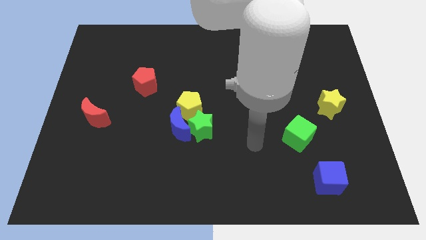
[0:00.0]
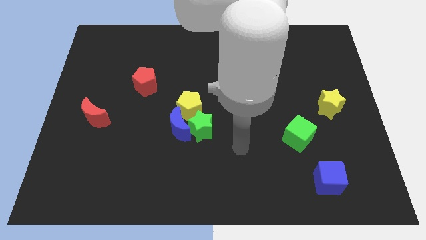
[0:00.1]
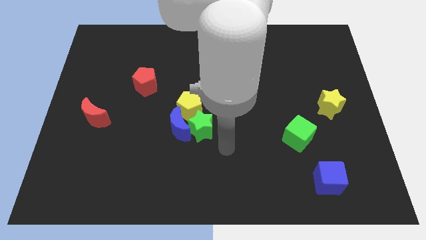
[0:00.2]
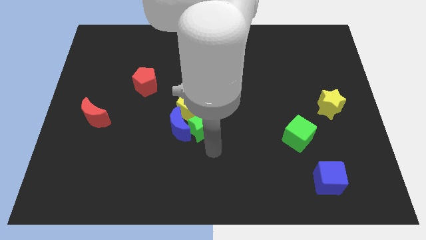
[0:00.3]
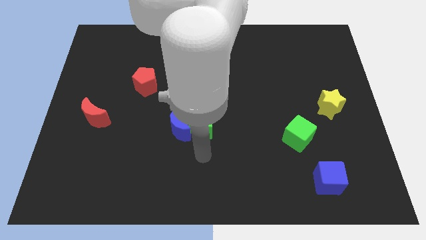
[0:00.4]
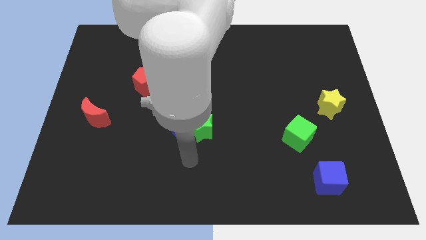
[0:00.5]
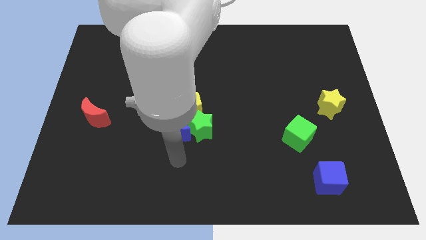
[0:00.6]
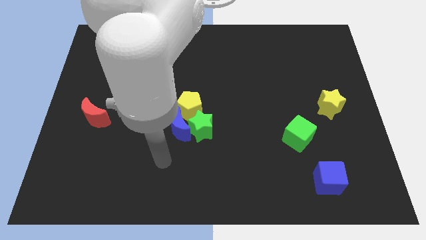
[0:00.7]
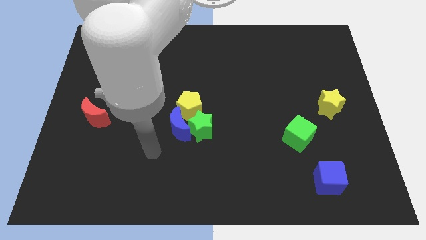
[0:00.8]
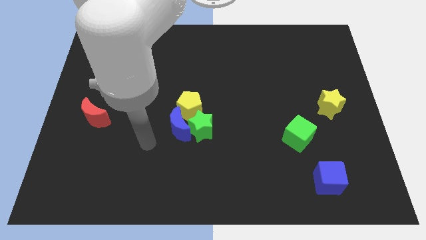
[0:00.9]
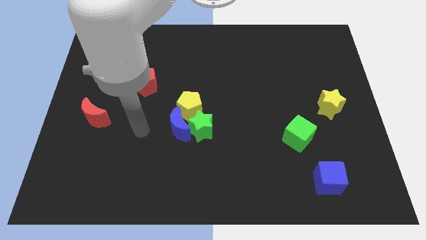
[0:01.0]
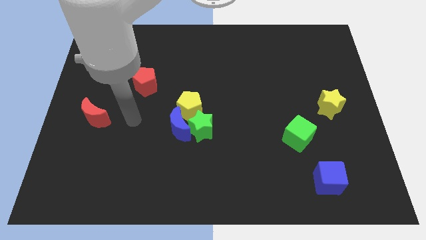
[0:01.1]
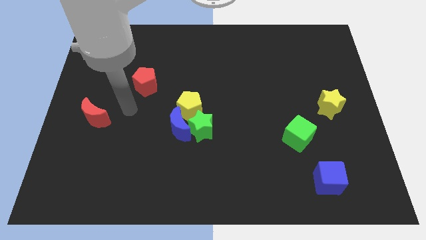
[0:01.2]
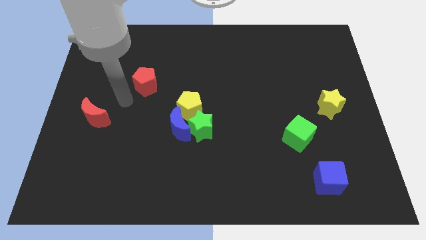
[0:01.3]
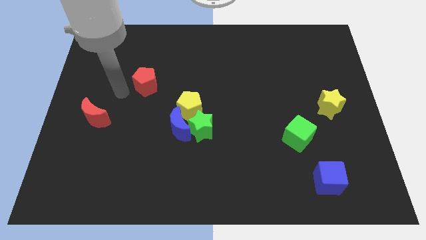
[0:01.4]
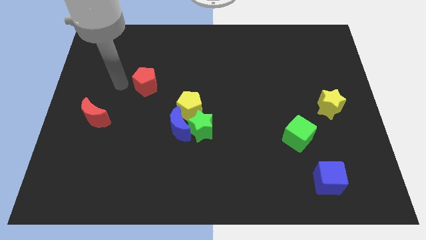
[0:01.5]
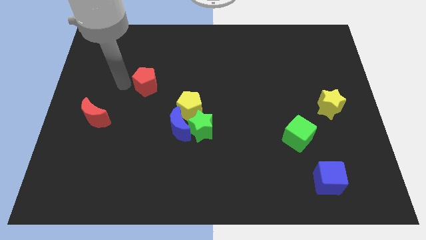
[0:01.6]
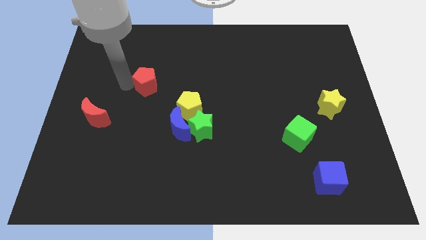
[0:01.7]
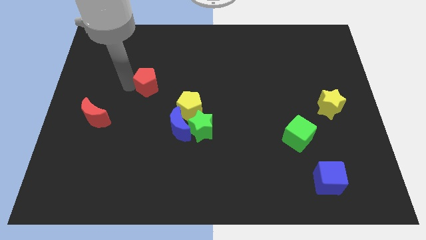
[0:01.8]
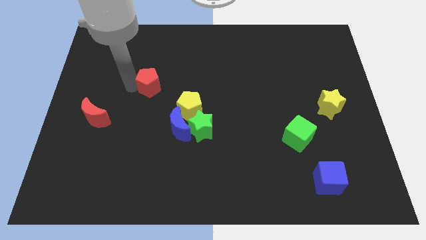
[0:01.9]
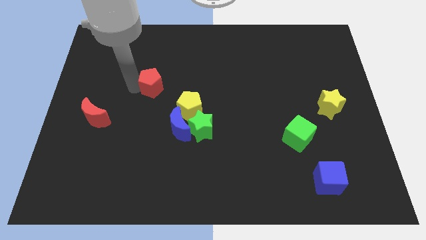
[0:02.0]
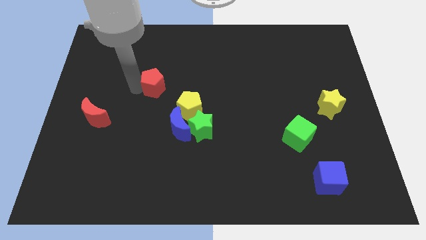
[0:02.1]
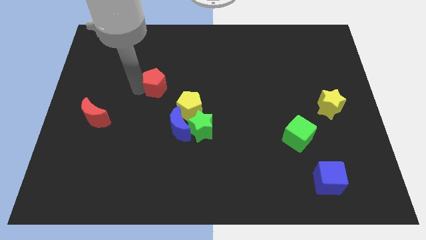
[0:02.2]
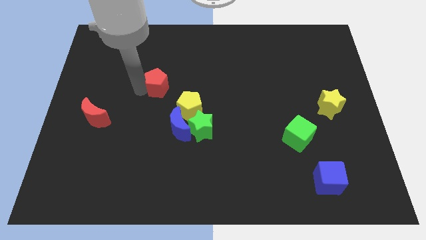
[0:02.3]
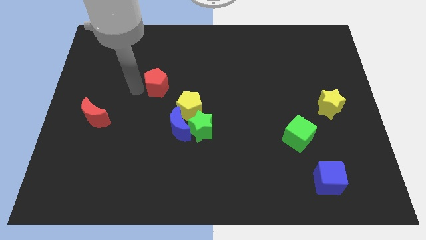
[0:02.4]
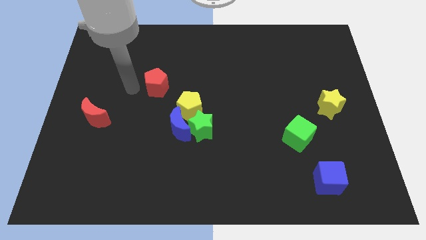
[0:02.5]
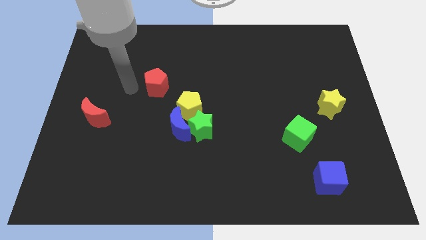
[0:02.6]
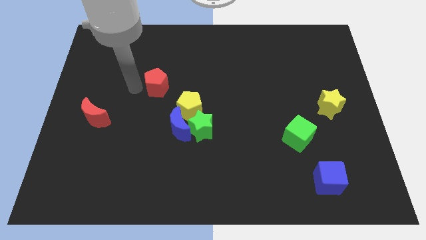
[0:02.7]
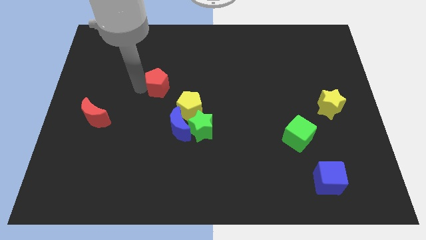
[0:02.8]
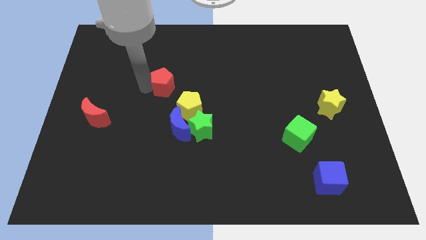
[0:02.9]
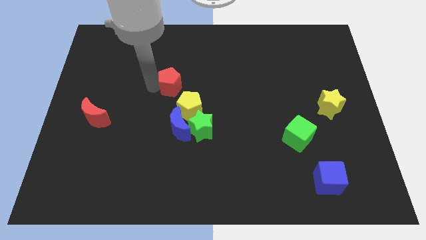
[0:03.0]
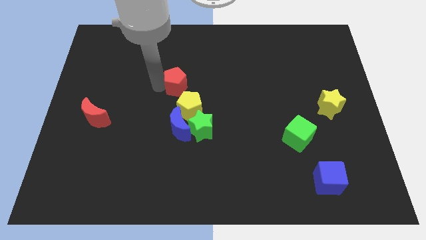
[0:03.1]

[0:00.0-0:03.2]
slightly slide the red pentagon right

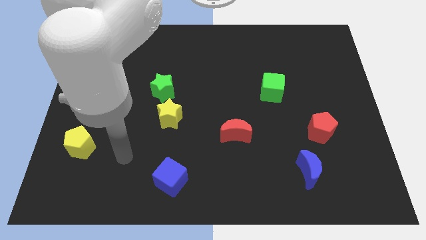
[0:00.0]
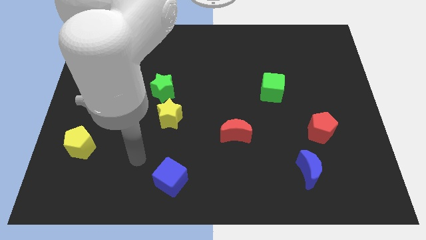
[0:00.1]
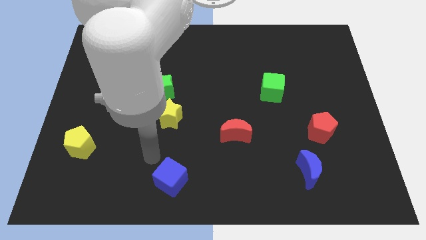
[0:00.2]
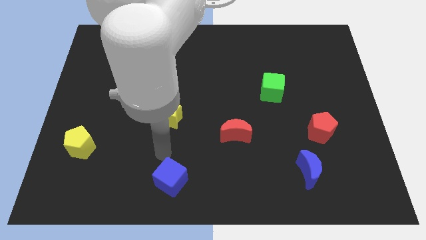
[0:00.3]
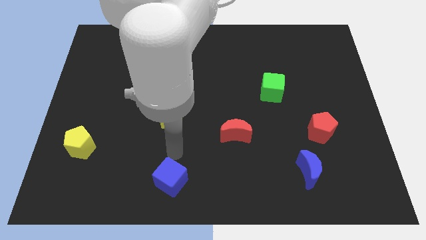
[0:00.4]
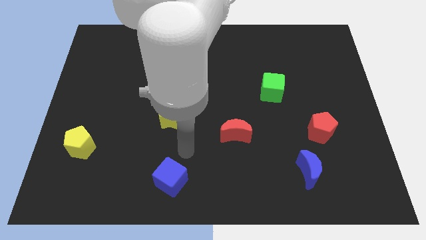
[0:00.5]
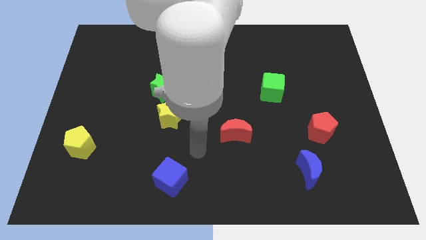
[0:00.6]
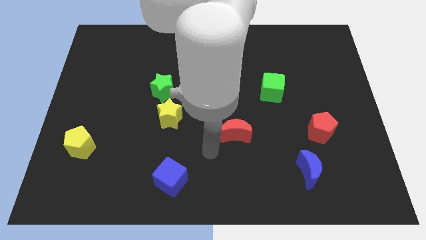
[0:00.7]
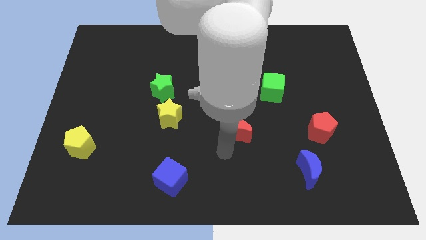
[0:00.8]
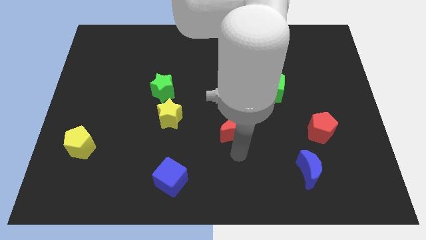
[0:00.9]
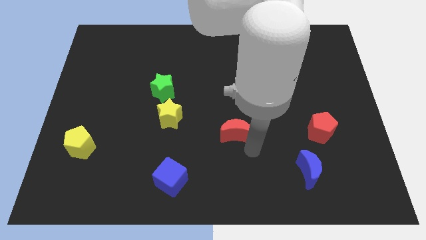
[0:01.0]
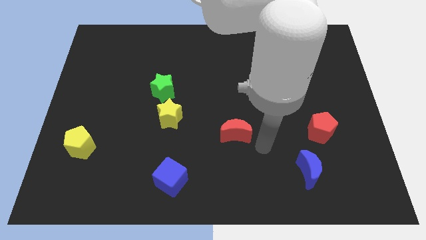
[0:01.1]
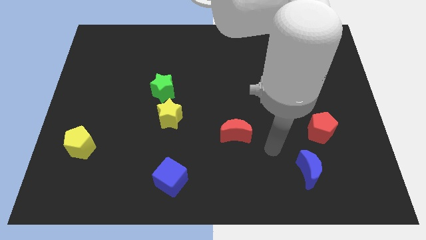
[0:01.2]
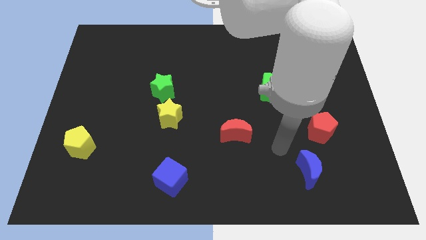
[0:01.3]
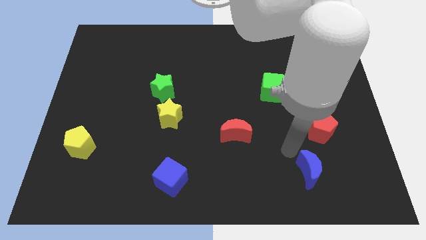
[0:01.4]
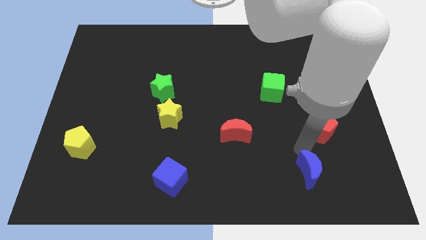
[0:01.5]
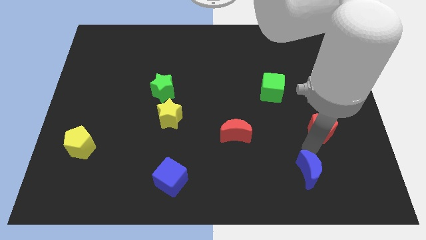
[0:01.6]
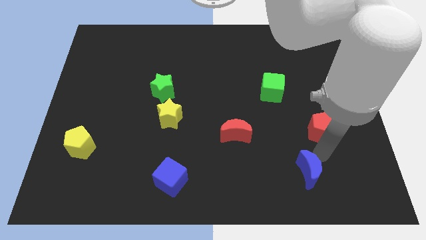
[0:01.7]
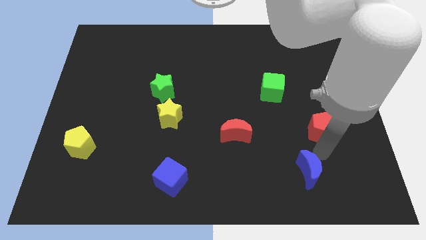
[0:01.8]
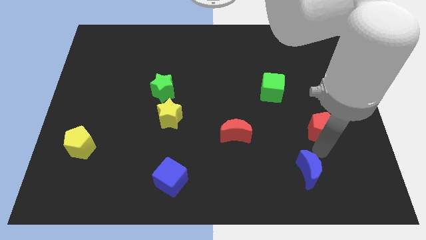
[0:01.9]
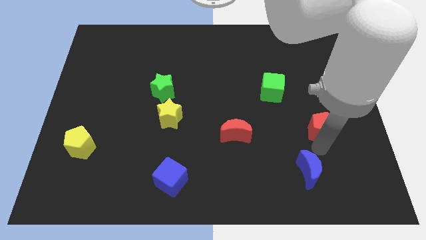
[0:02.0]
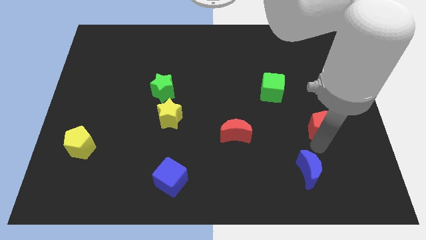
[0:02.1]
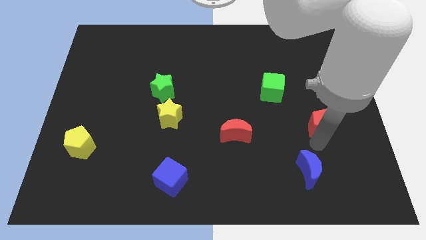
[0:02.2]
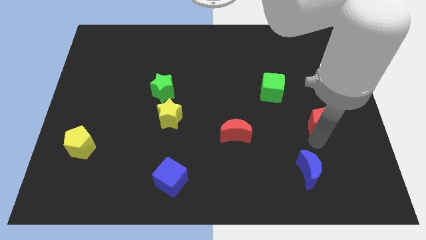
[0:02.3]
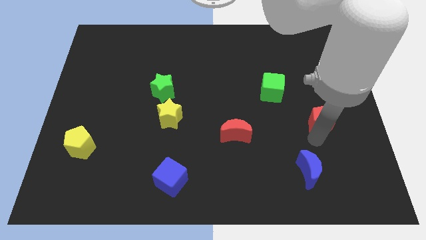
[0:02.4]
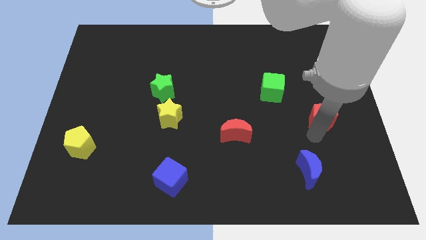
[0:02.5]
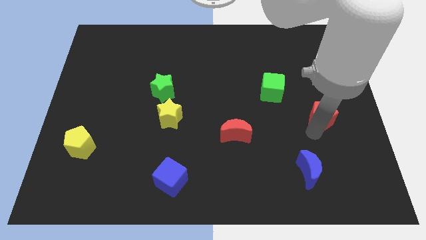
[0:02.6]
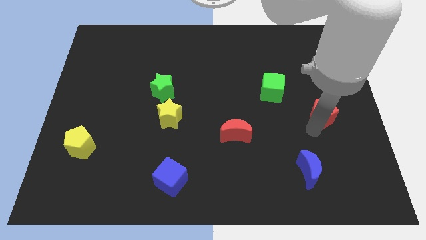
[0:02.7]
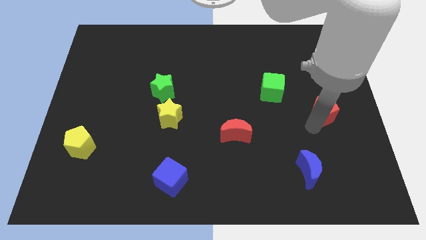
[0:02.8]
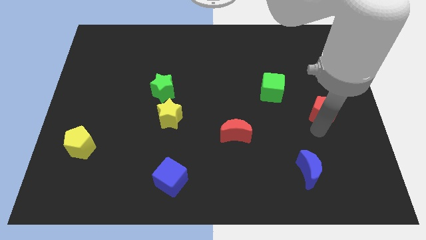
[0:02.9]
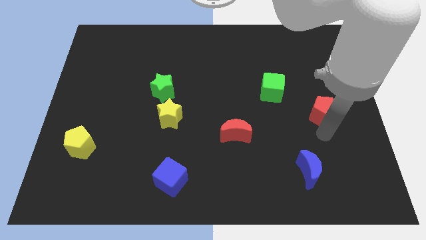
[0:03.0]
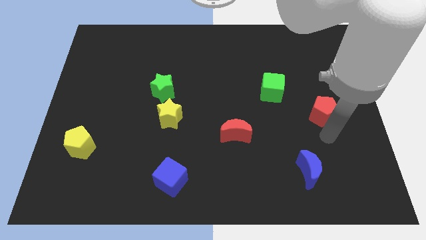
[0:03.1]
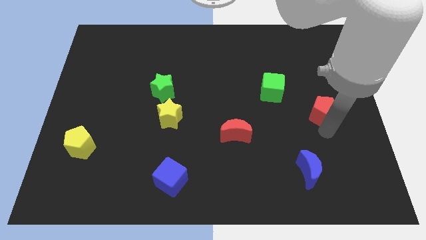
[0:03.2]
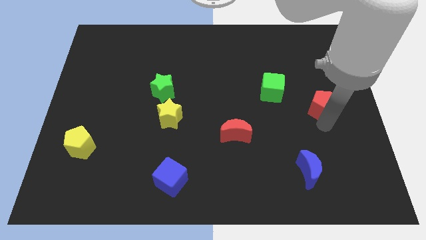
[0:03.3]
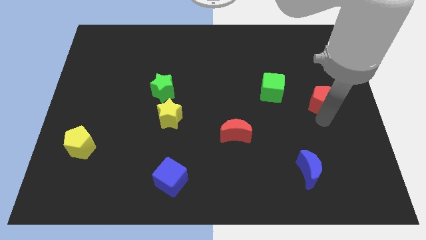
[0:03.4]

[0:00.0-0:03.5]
slightly move the red pentagon upwards

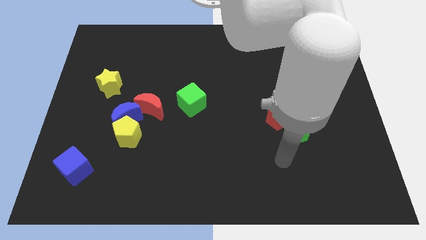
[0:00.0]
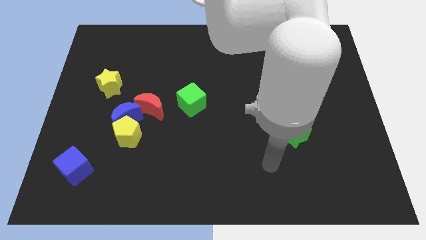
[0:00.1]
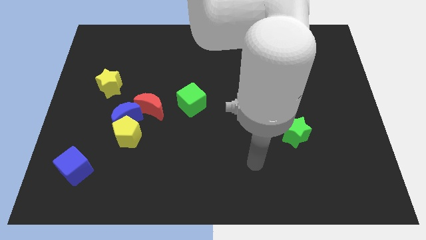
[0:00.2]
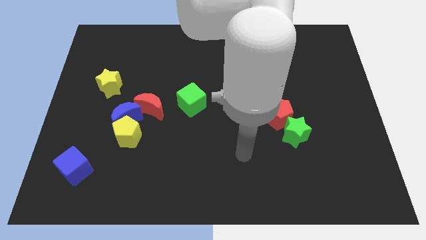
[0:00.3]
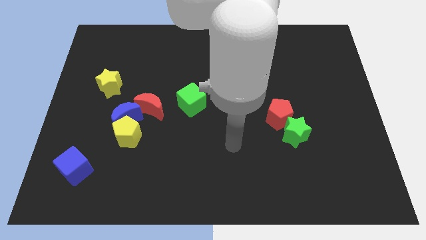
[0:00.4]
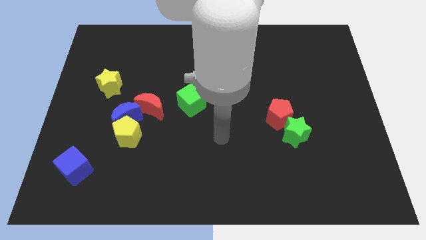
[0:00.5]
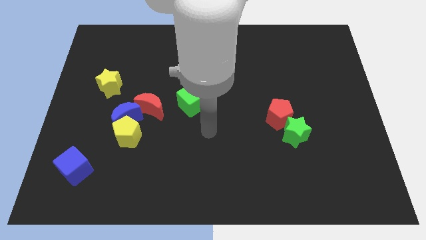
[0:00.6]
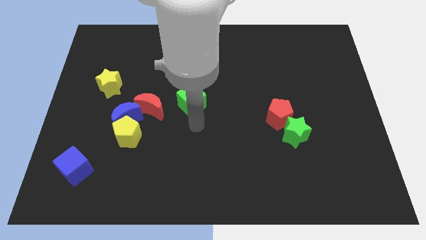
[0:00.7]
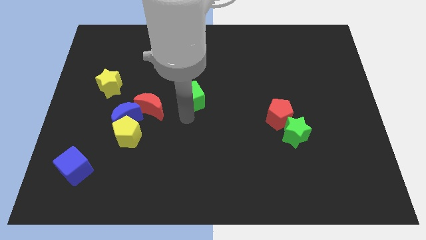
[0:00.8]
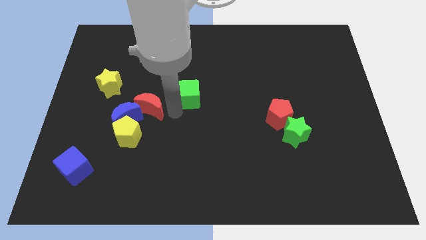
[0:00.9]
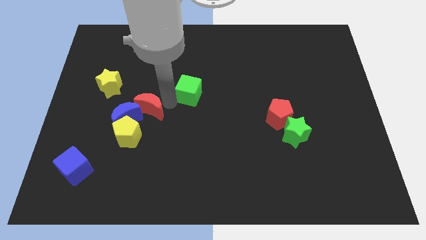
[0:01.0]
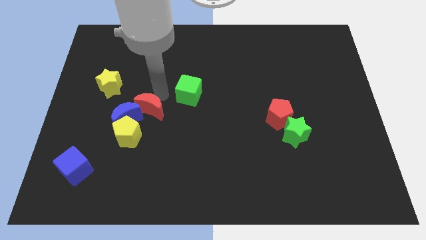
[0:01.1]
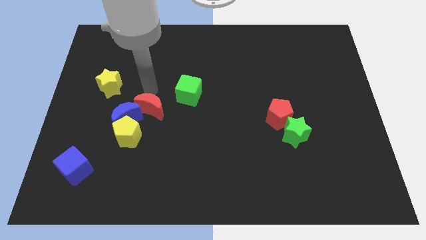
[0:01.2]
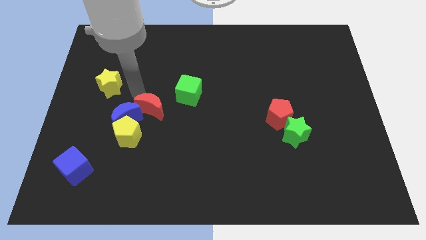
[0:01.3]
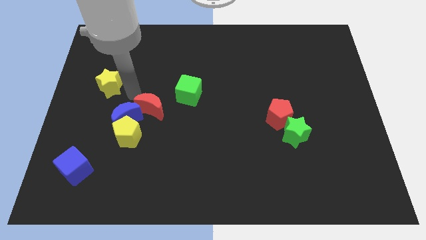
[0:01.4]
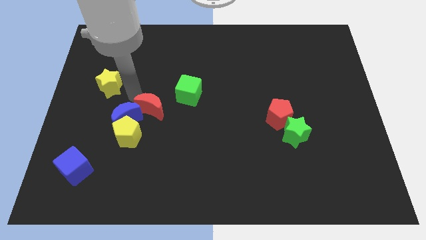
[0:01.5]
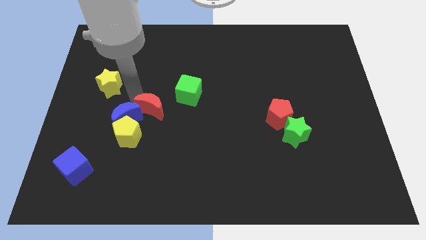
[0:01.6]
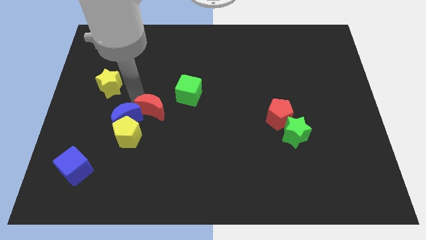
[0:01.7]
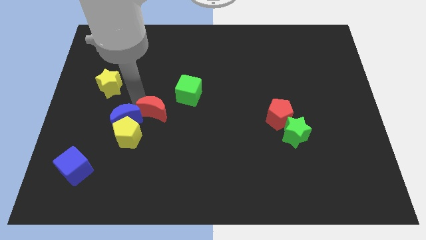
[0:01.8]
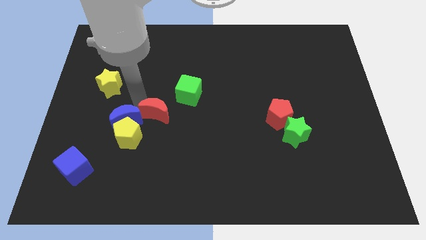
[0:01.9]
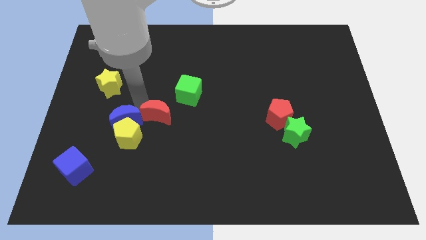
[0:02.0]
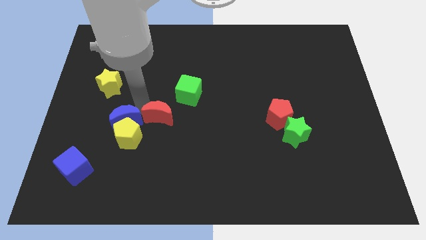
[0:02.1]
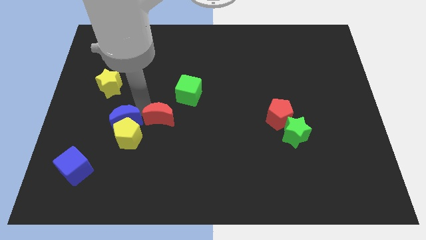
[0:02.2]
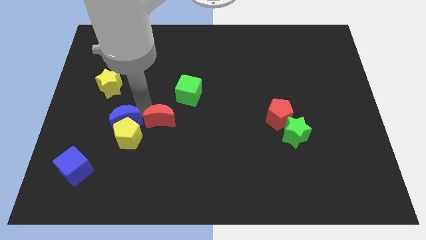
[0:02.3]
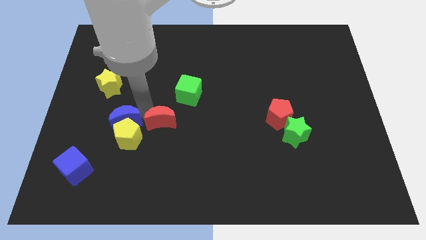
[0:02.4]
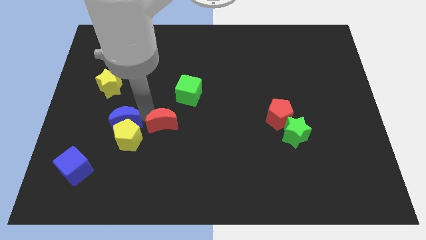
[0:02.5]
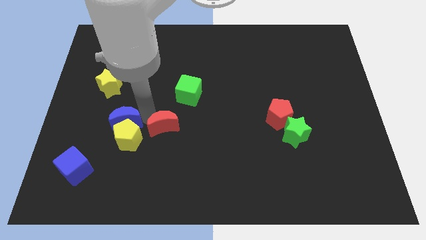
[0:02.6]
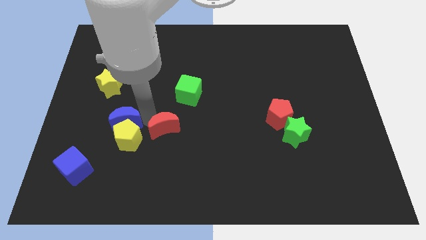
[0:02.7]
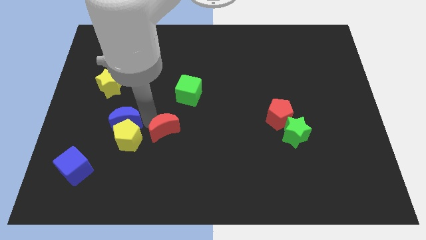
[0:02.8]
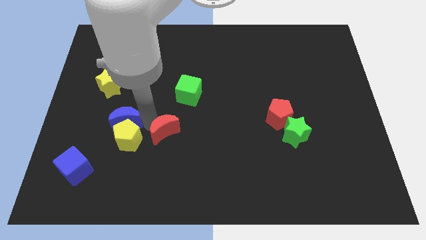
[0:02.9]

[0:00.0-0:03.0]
slightly push the red moon downwards and right
